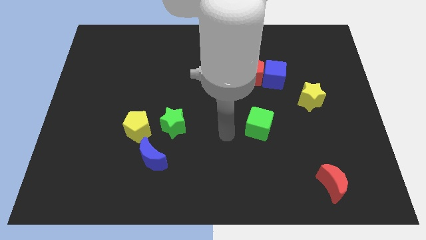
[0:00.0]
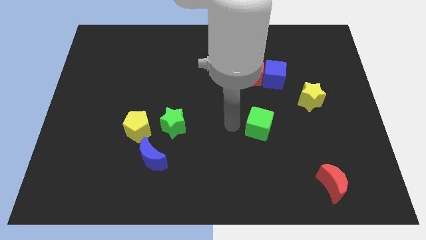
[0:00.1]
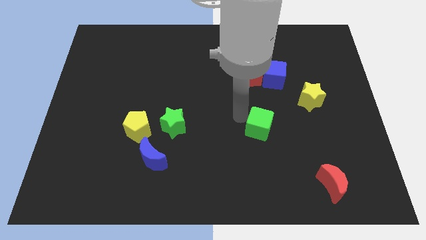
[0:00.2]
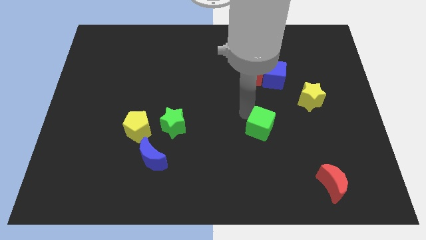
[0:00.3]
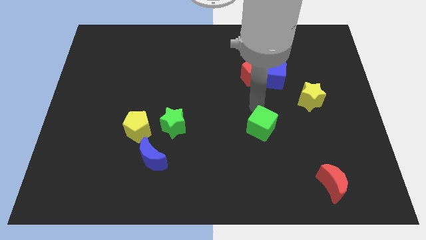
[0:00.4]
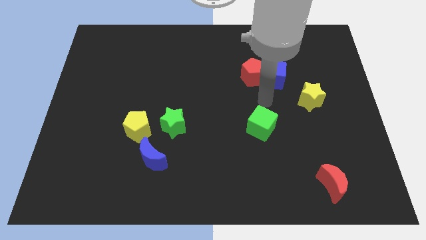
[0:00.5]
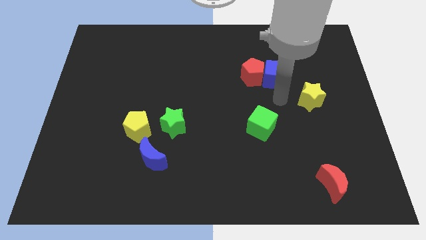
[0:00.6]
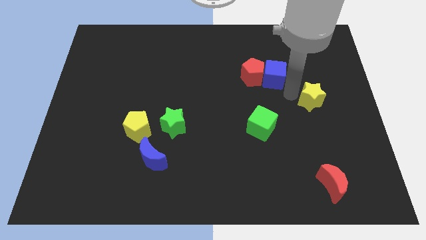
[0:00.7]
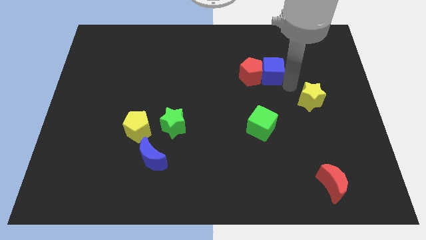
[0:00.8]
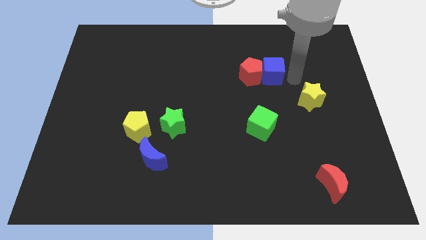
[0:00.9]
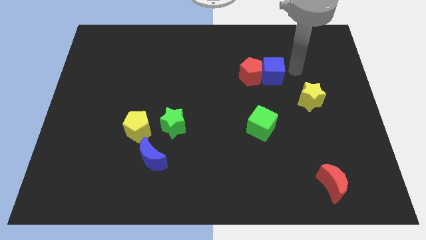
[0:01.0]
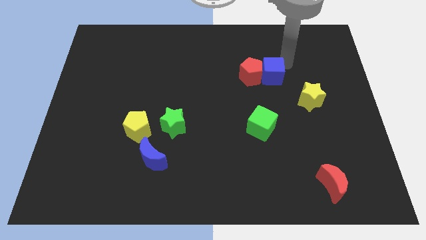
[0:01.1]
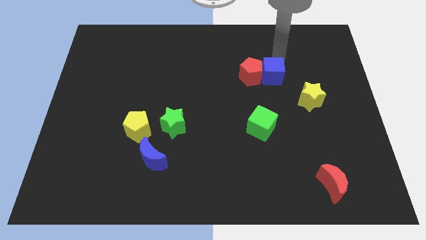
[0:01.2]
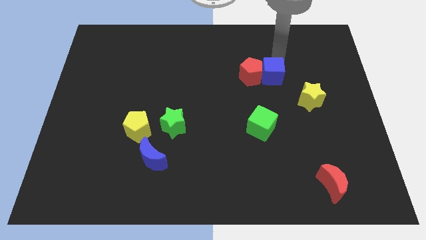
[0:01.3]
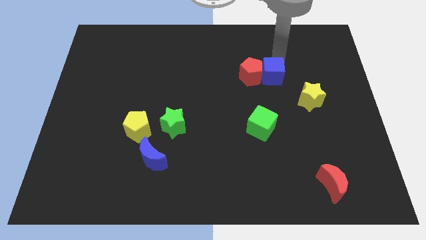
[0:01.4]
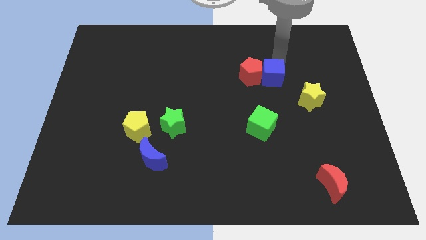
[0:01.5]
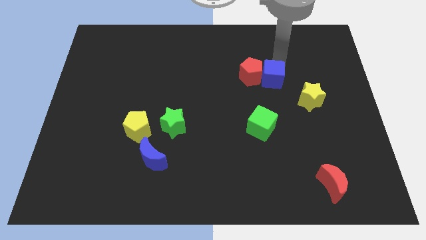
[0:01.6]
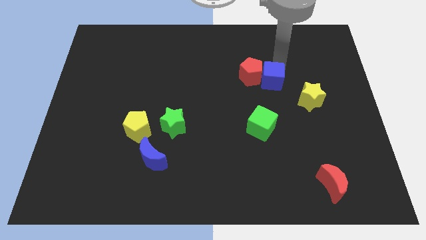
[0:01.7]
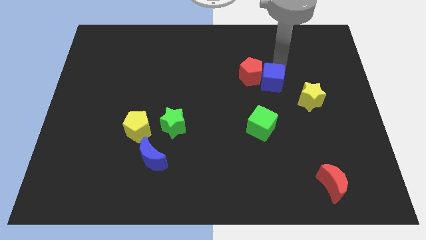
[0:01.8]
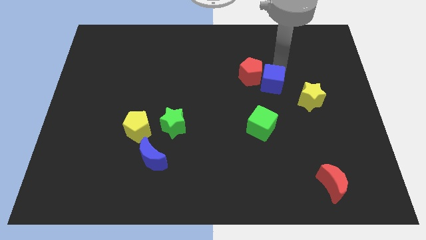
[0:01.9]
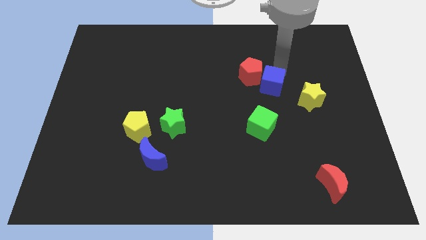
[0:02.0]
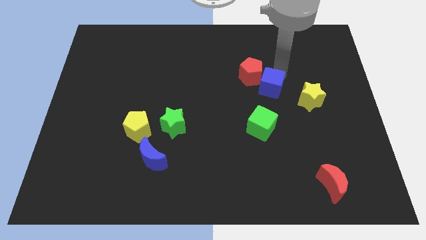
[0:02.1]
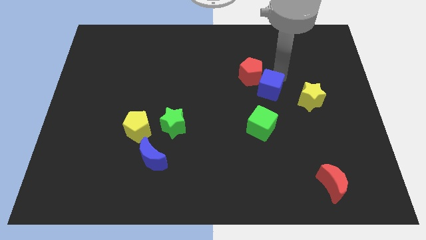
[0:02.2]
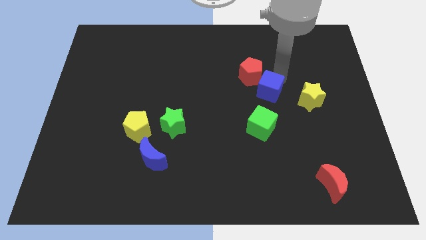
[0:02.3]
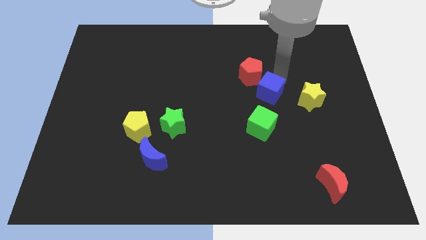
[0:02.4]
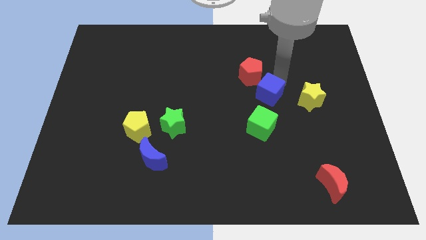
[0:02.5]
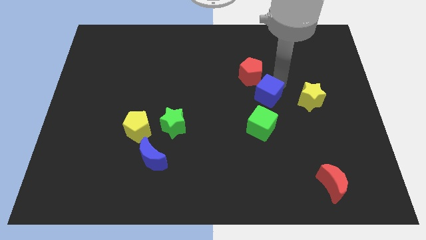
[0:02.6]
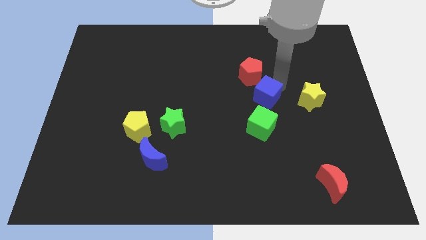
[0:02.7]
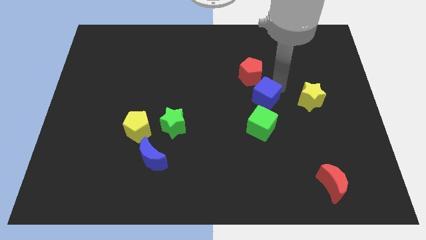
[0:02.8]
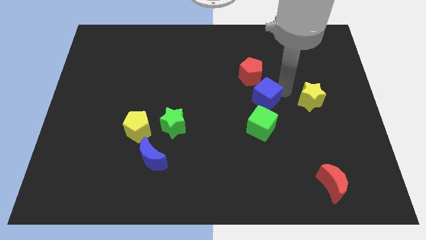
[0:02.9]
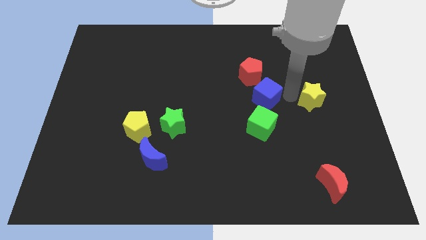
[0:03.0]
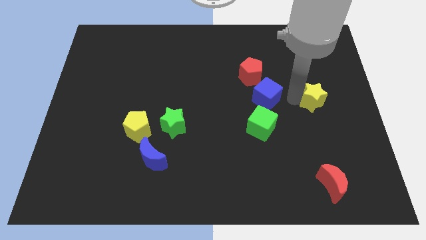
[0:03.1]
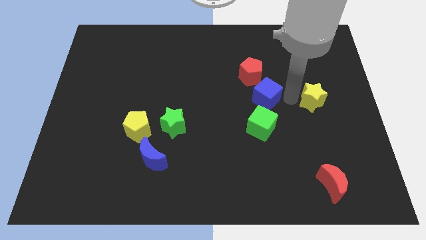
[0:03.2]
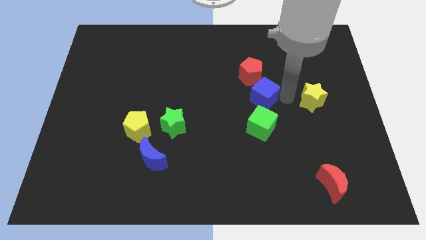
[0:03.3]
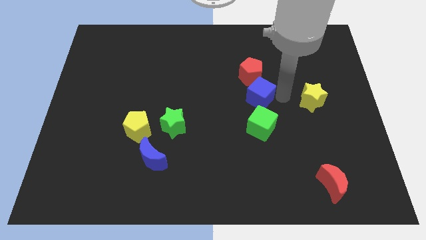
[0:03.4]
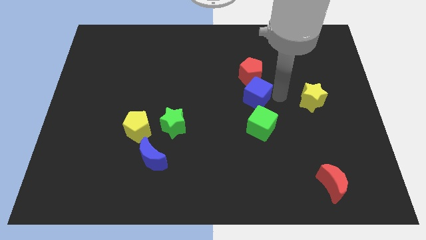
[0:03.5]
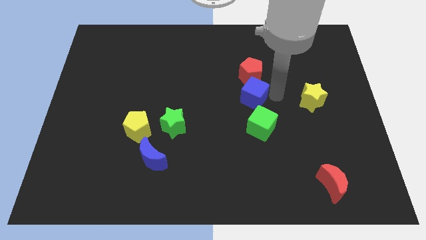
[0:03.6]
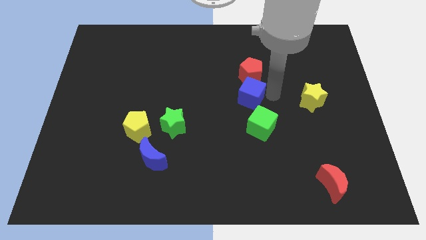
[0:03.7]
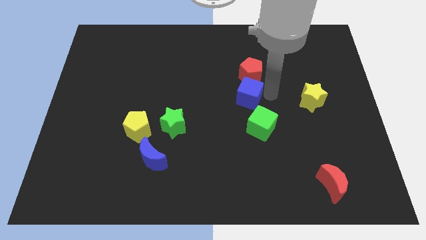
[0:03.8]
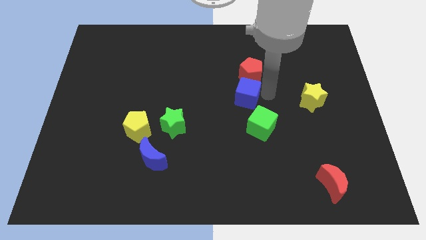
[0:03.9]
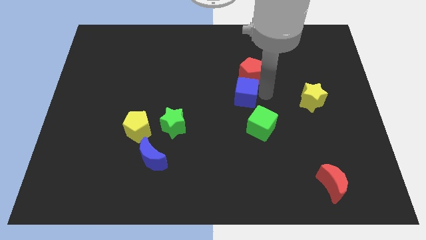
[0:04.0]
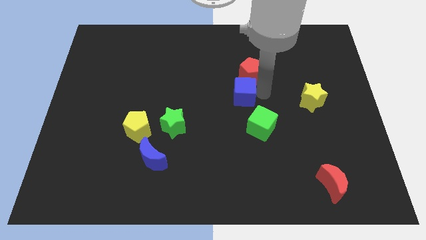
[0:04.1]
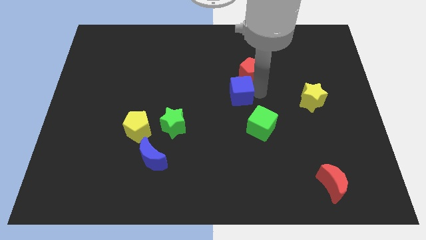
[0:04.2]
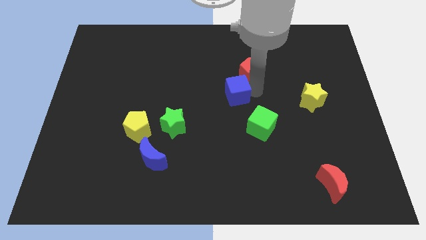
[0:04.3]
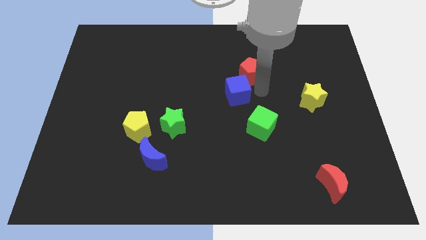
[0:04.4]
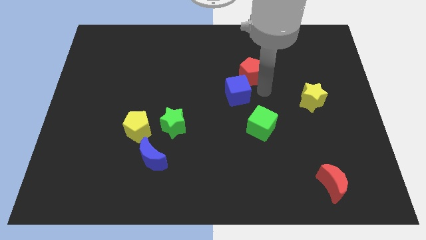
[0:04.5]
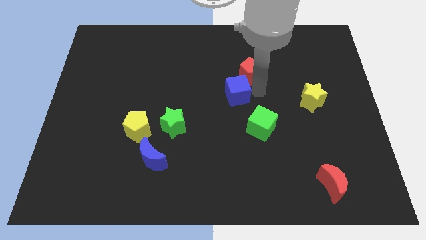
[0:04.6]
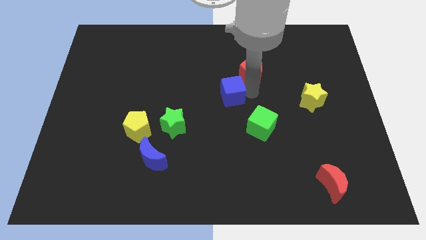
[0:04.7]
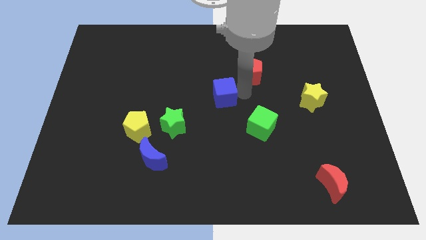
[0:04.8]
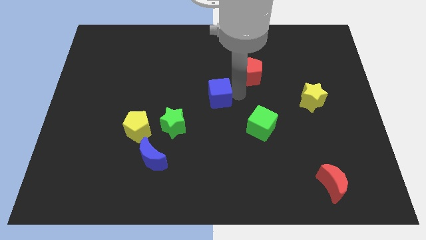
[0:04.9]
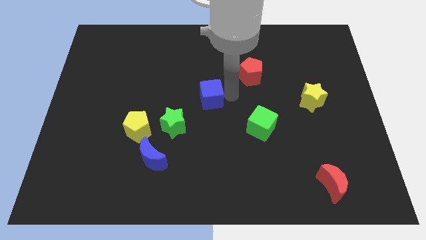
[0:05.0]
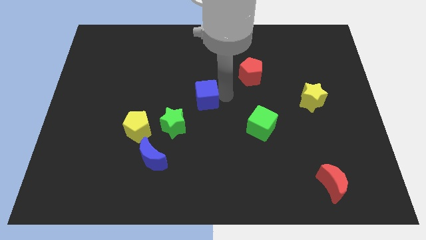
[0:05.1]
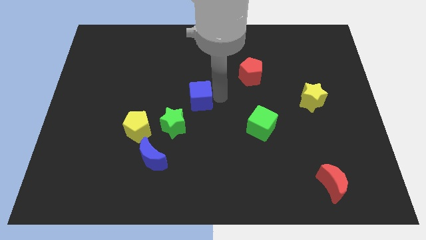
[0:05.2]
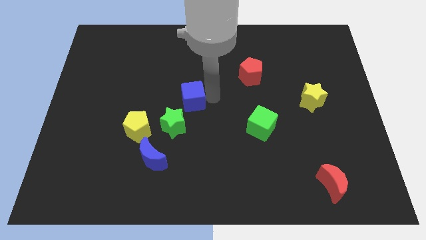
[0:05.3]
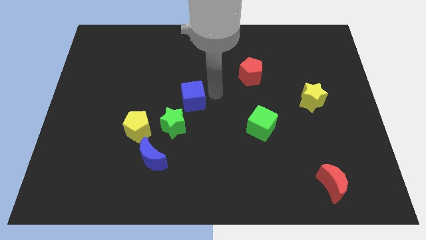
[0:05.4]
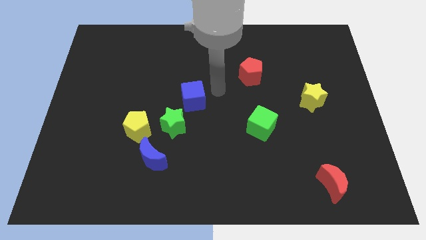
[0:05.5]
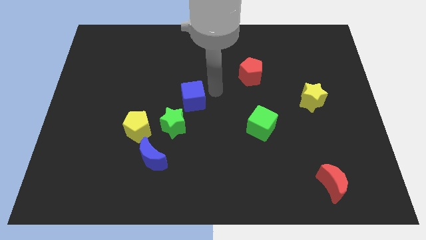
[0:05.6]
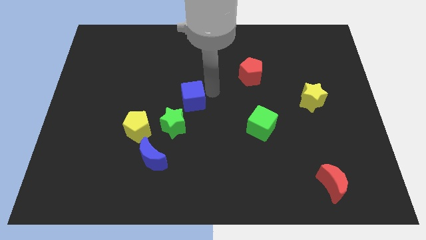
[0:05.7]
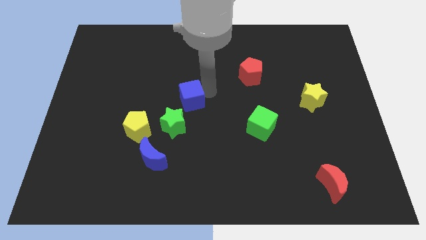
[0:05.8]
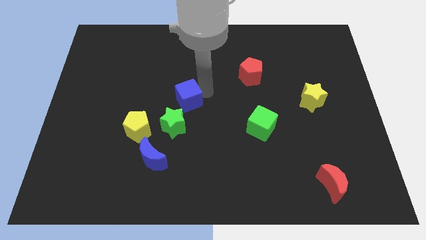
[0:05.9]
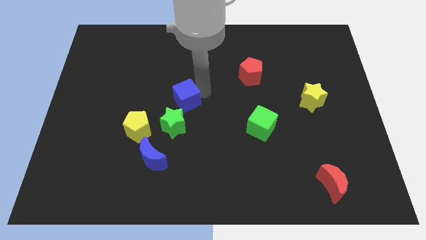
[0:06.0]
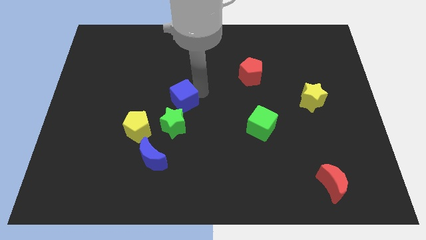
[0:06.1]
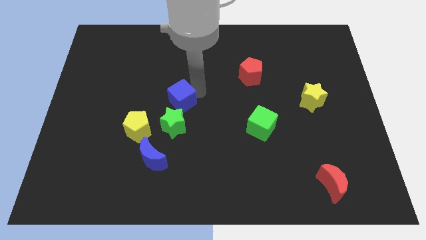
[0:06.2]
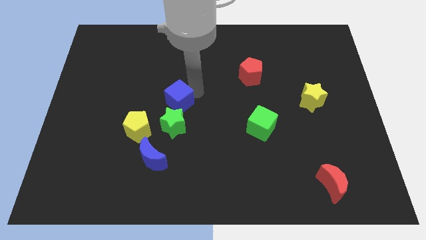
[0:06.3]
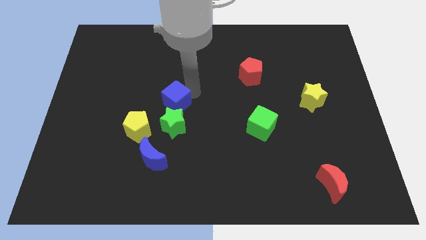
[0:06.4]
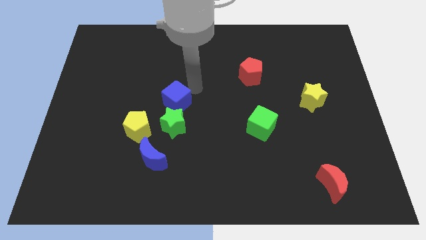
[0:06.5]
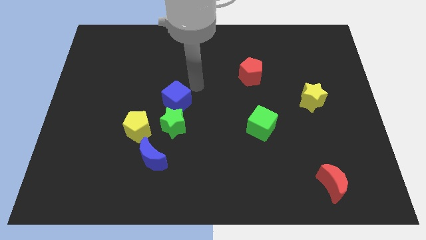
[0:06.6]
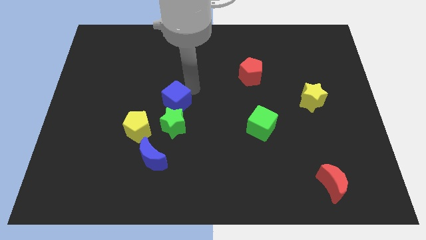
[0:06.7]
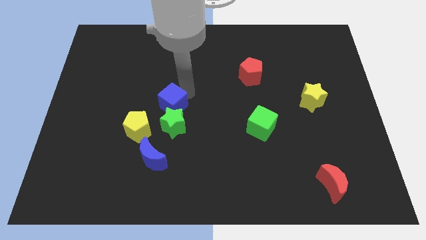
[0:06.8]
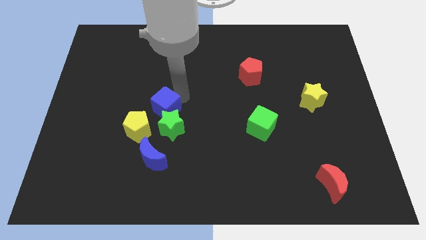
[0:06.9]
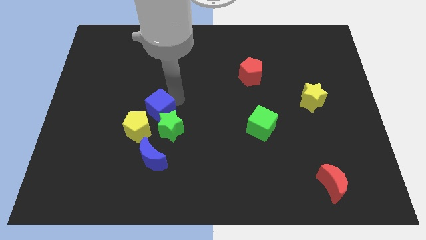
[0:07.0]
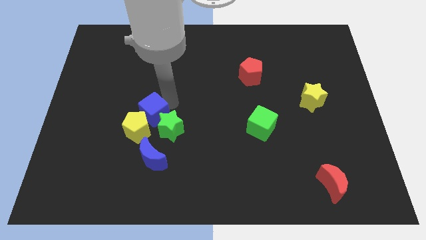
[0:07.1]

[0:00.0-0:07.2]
push the blue cube close to the yellow pentagon

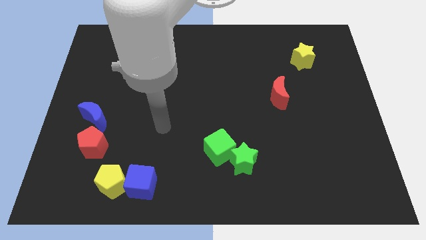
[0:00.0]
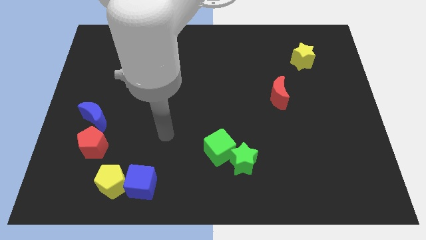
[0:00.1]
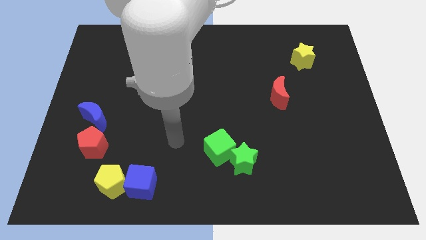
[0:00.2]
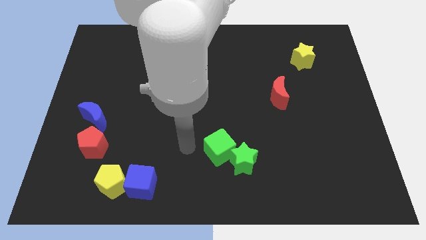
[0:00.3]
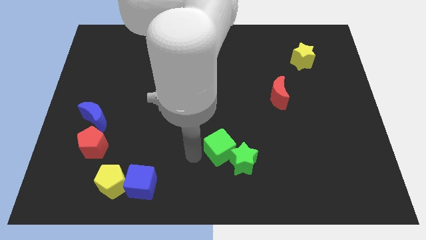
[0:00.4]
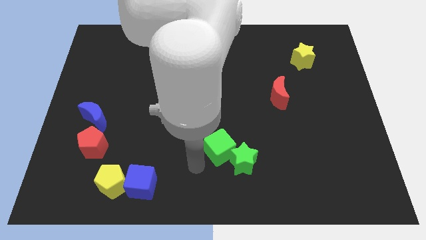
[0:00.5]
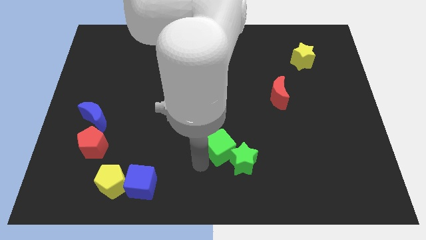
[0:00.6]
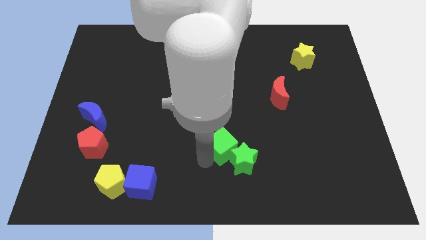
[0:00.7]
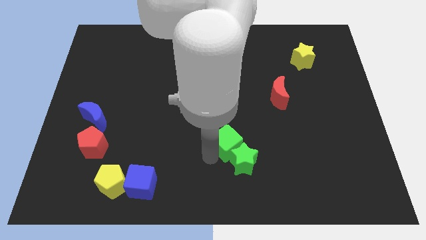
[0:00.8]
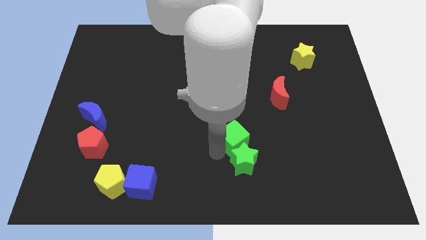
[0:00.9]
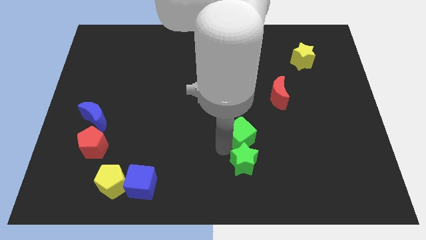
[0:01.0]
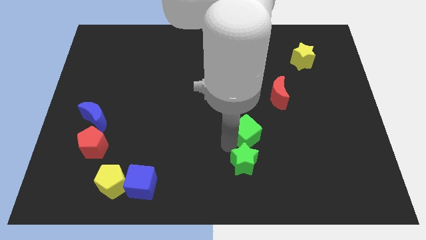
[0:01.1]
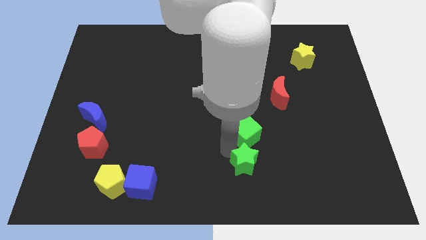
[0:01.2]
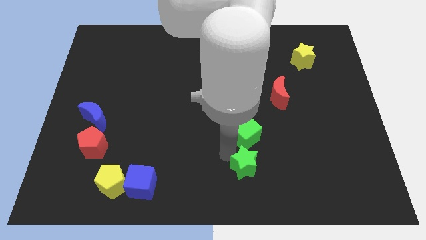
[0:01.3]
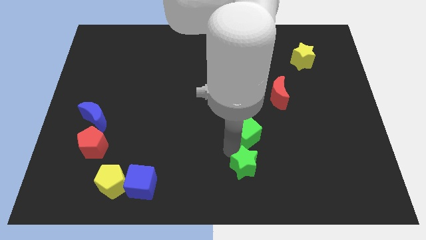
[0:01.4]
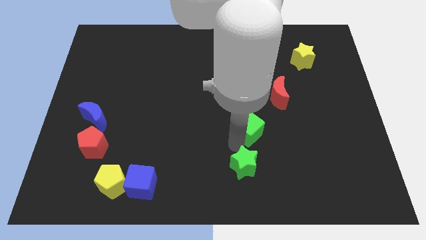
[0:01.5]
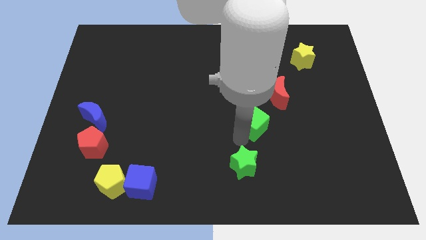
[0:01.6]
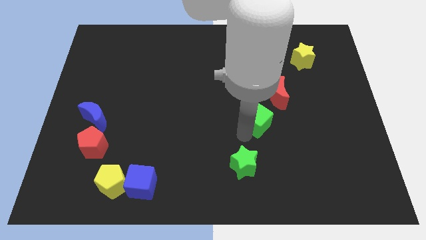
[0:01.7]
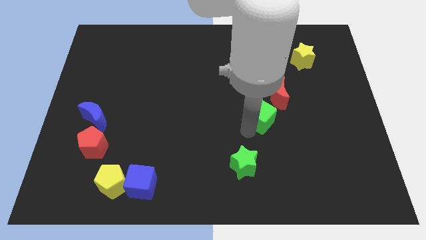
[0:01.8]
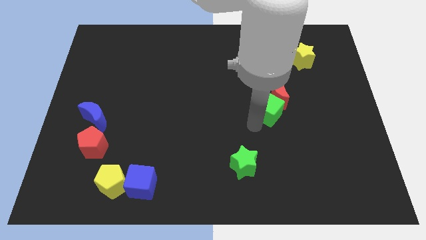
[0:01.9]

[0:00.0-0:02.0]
slide the green cube next to the red moon
